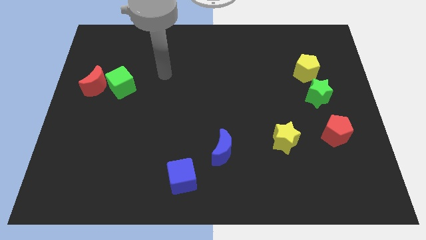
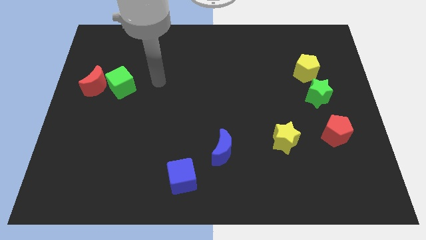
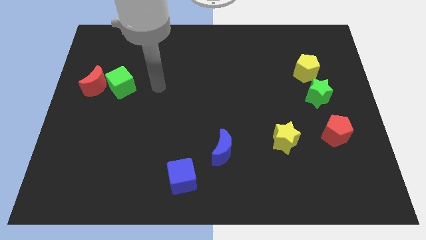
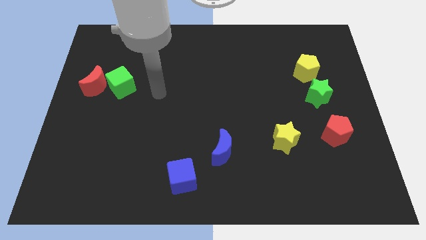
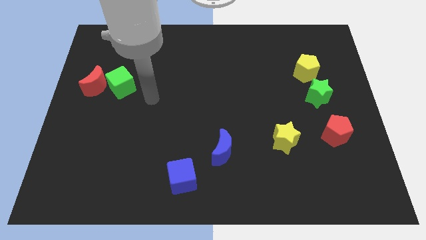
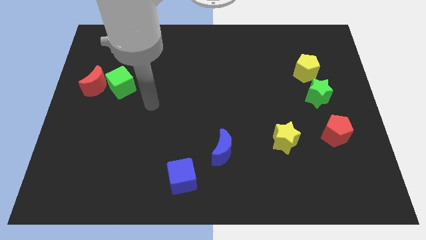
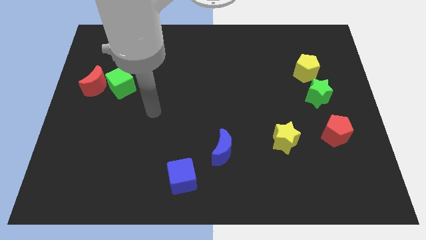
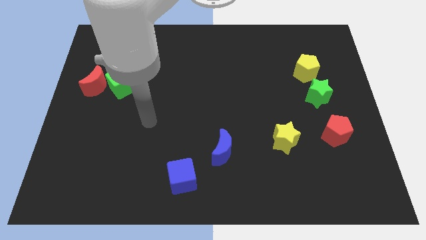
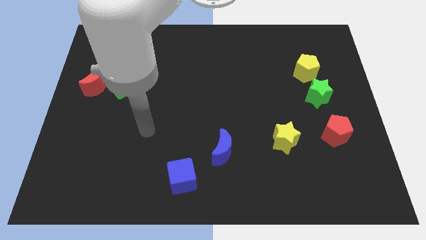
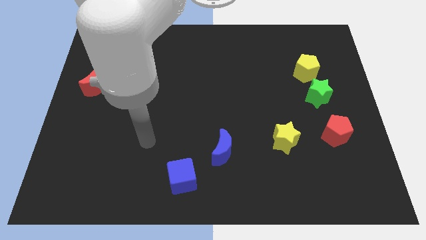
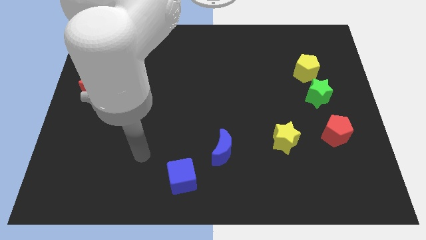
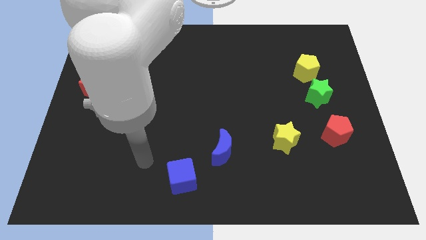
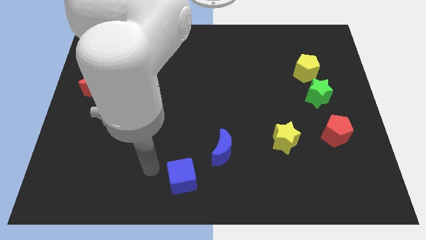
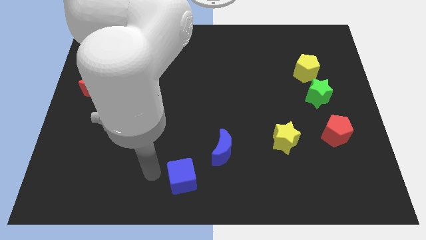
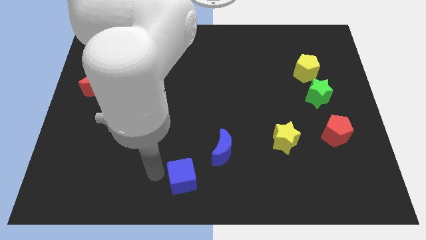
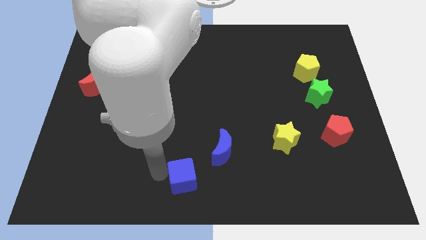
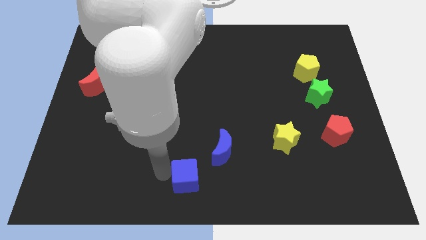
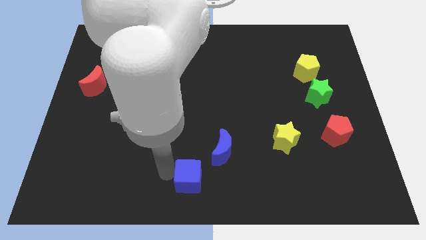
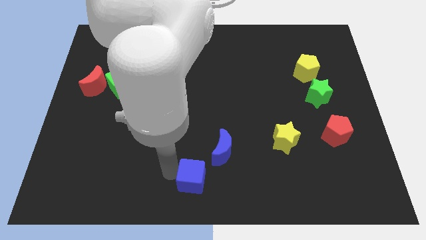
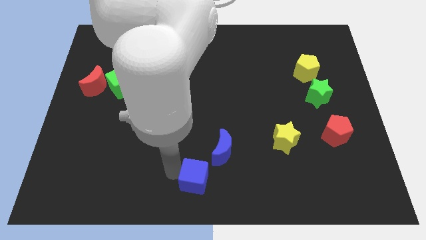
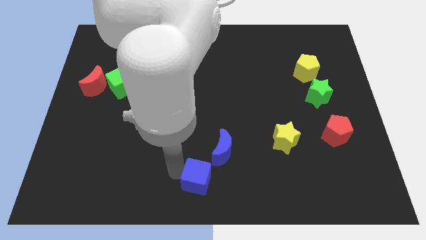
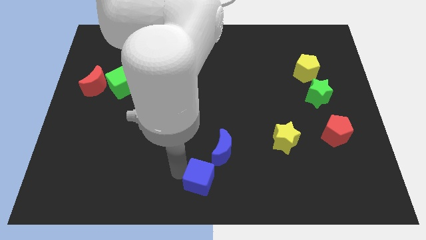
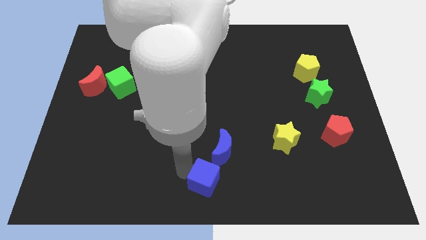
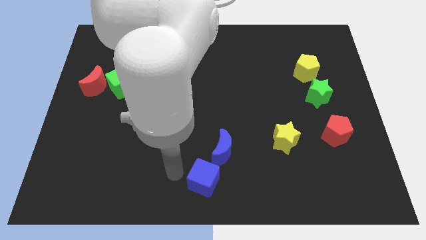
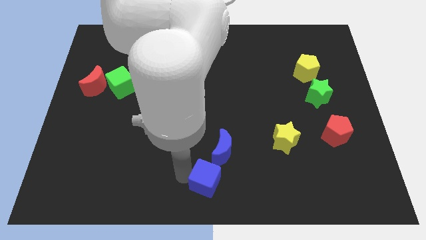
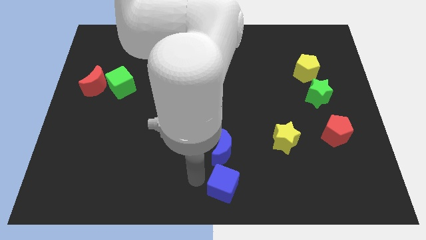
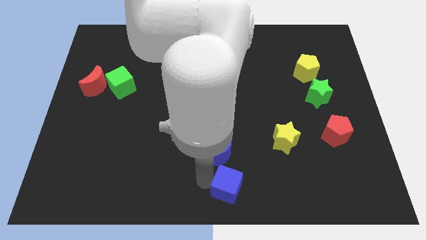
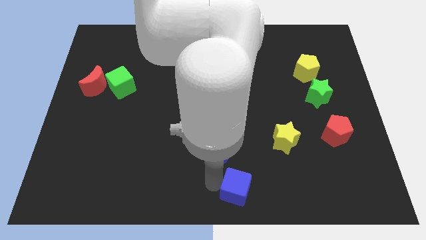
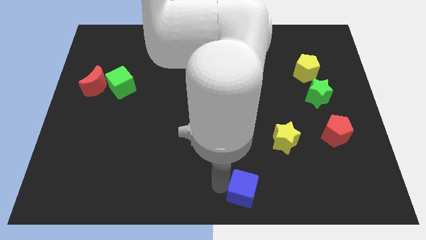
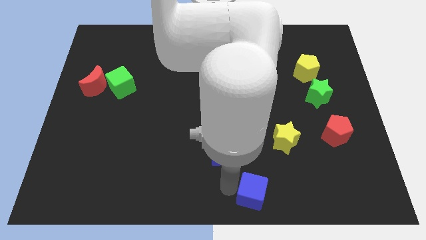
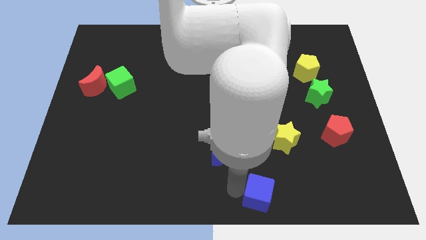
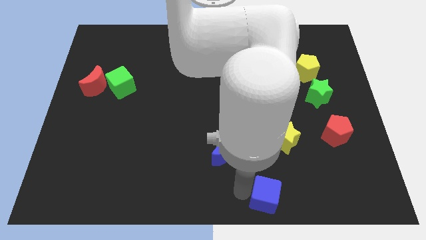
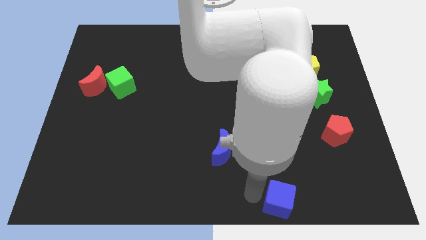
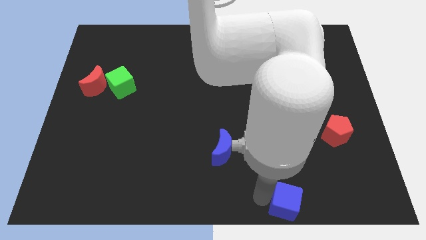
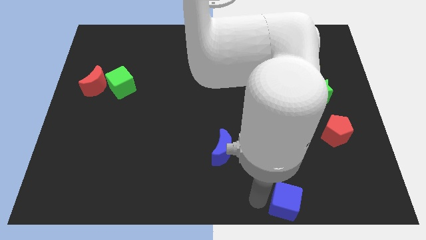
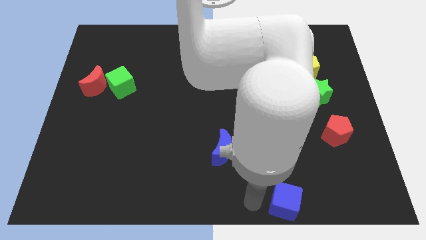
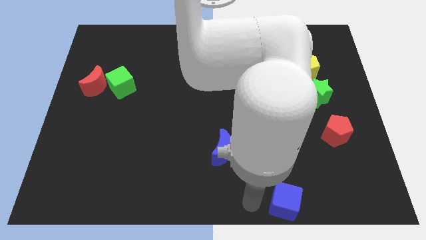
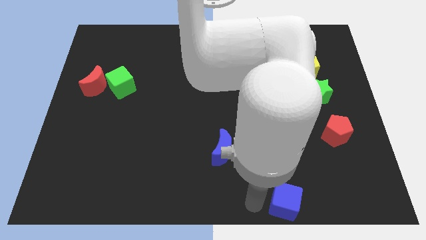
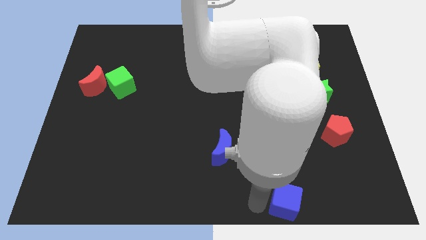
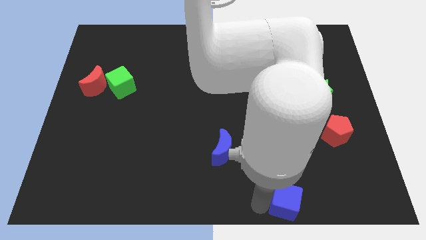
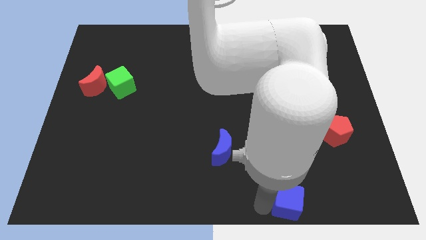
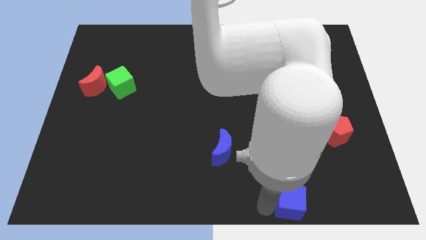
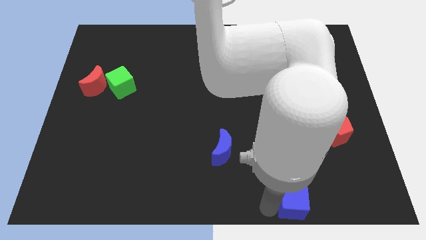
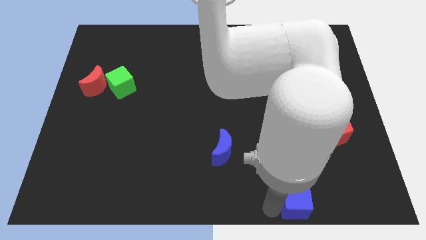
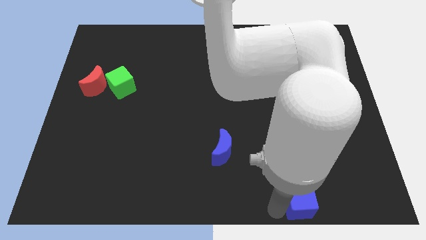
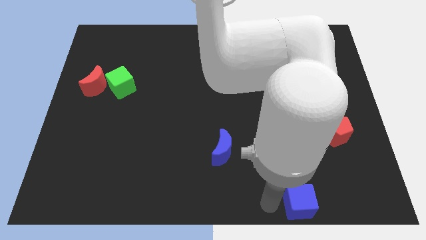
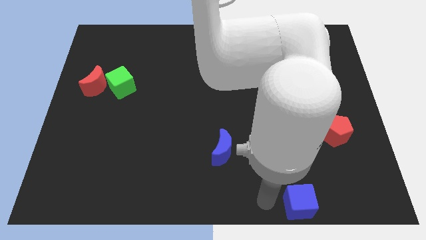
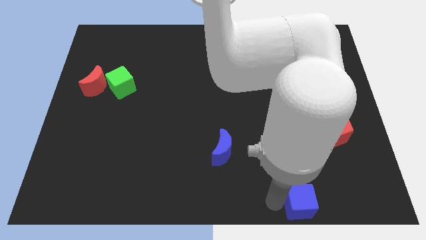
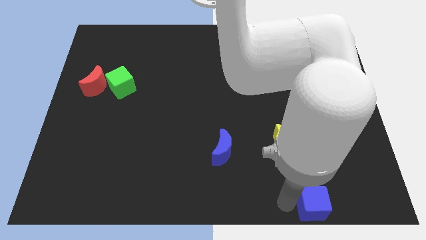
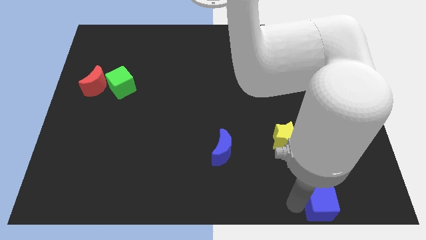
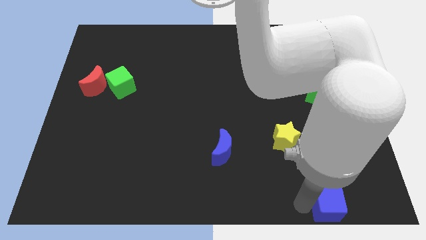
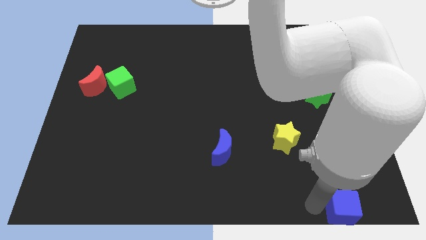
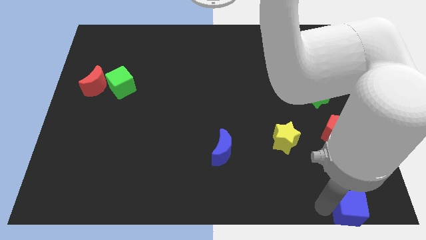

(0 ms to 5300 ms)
push the blue cube to the bottom right of the board

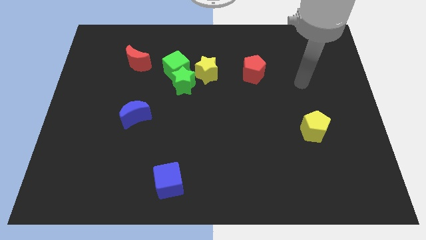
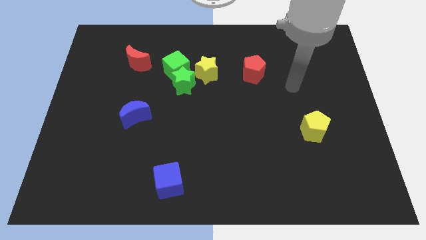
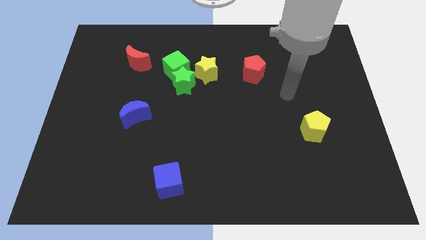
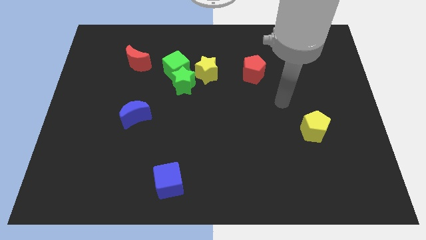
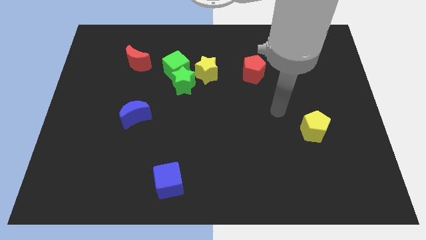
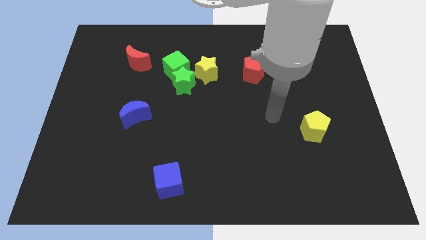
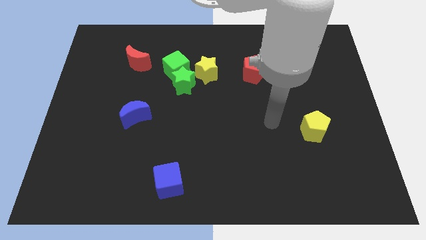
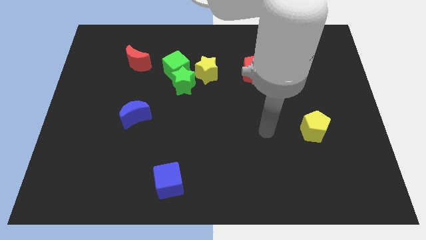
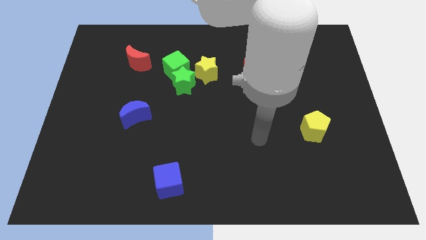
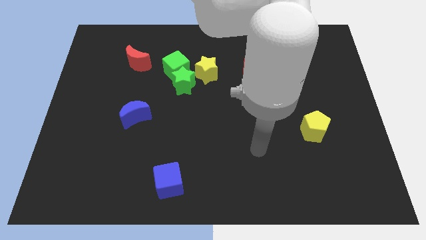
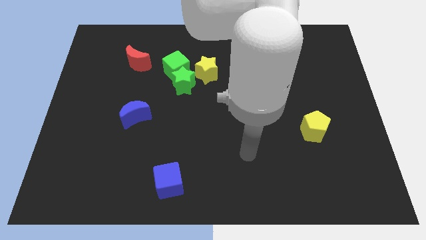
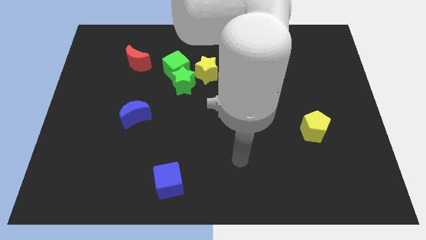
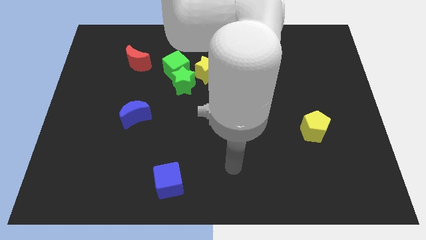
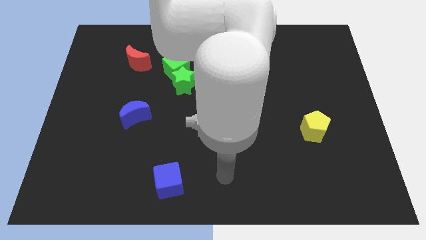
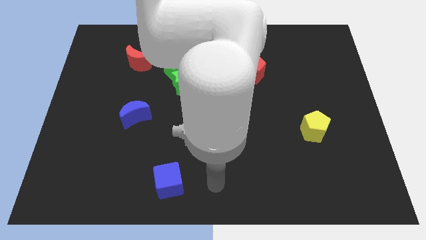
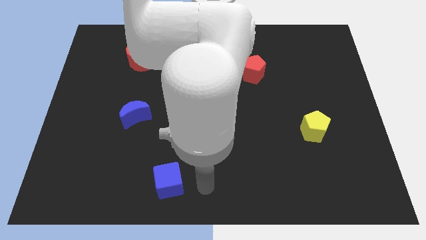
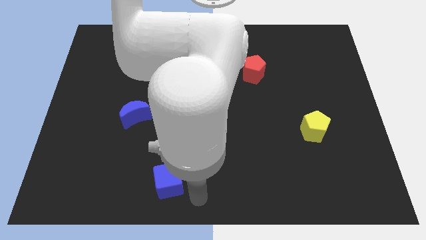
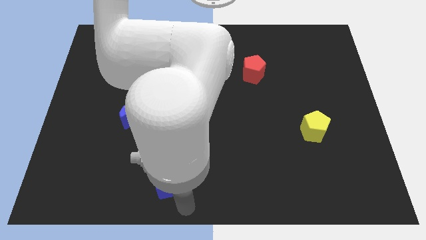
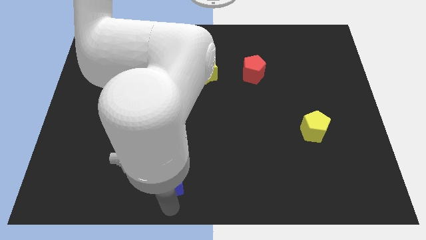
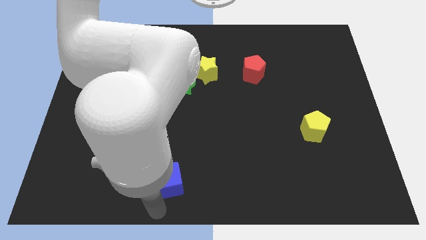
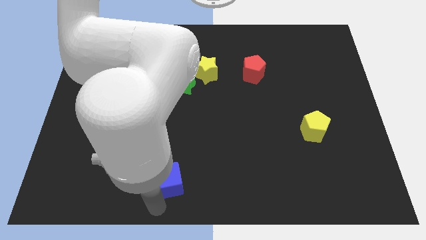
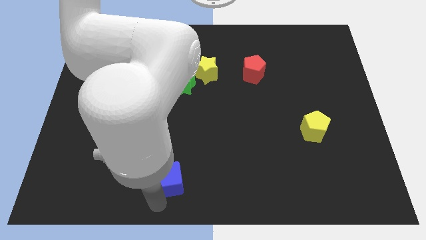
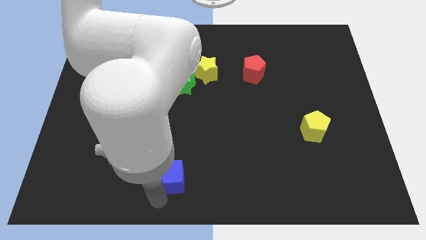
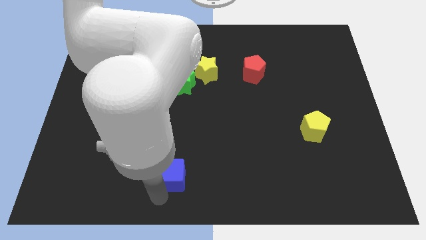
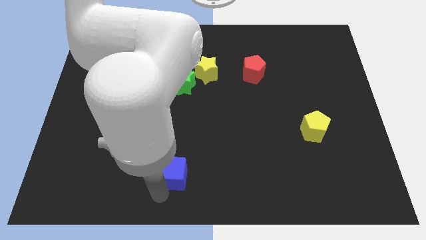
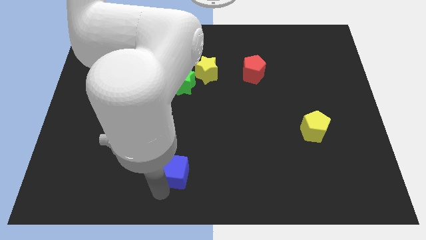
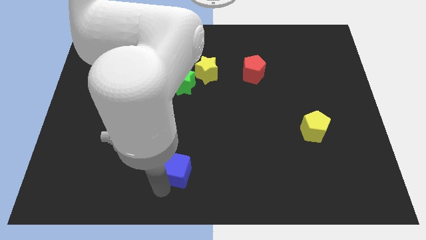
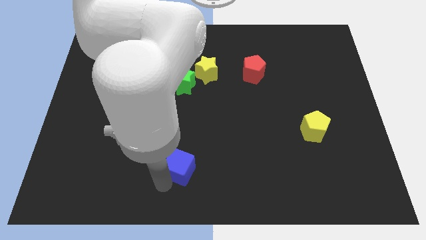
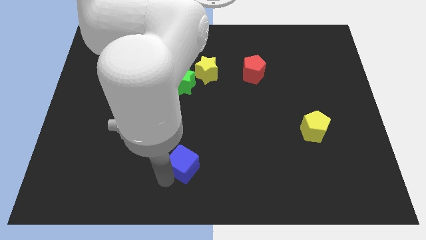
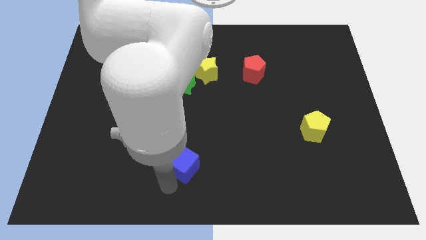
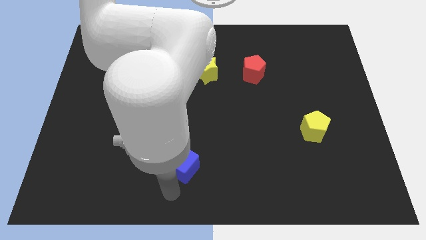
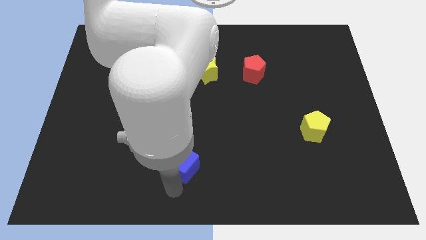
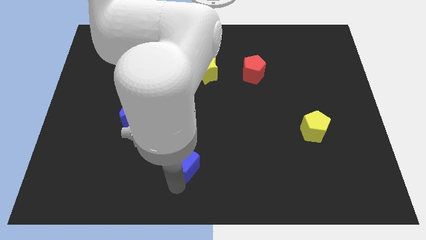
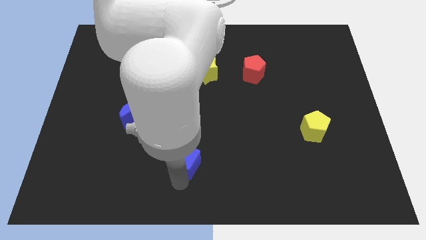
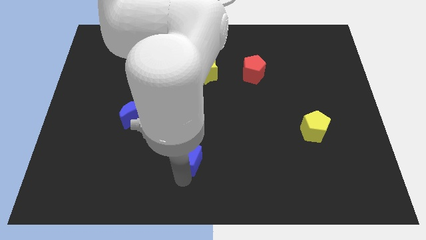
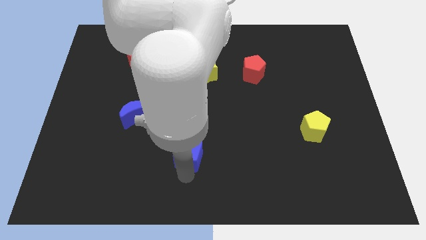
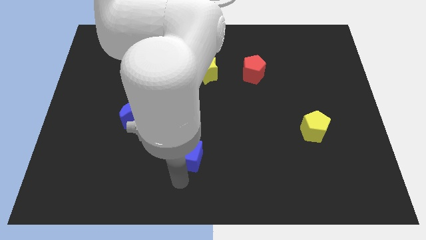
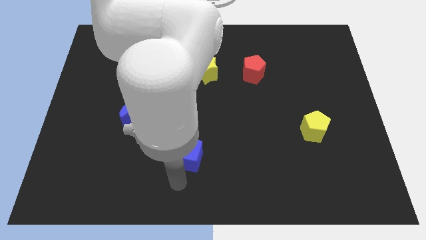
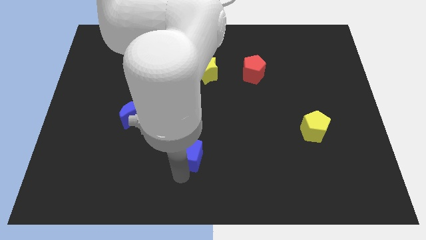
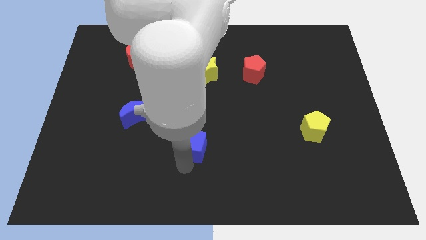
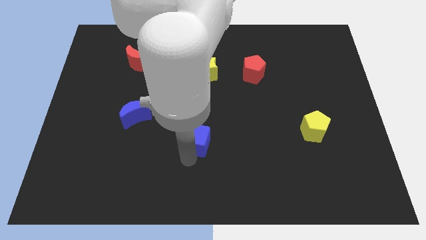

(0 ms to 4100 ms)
put the blue cube to the center
